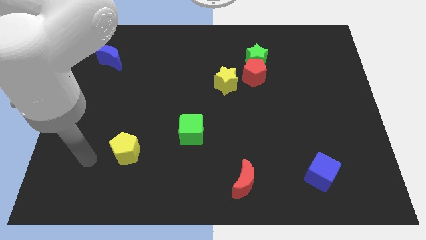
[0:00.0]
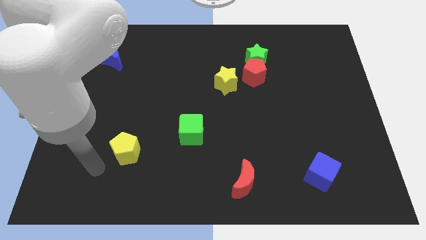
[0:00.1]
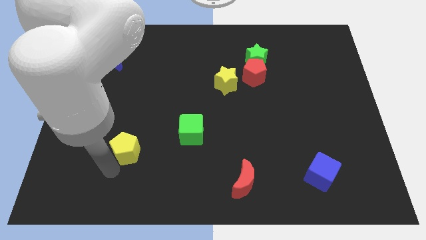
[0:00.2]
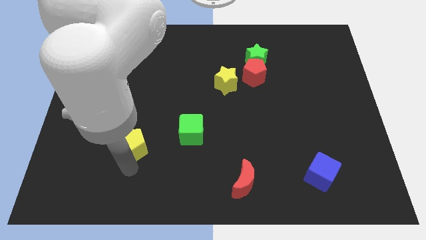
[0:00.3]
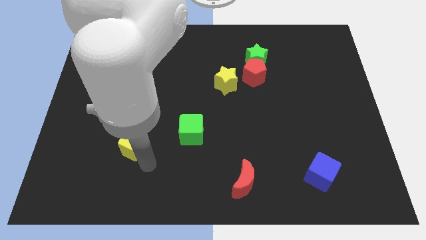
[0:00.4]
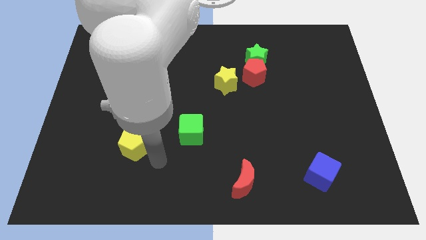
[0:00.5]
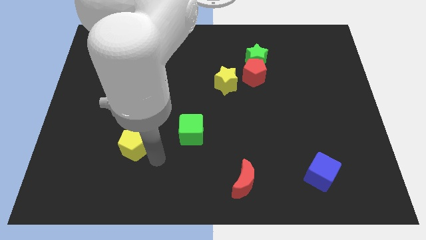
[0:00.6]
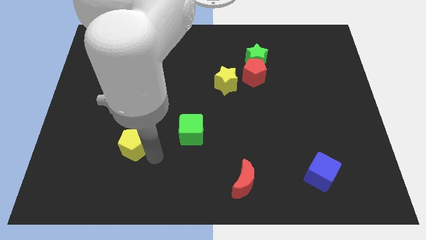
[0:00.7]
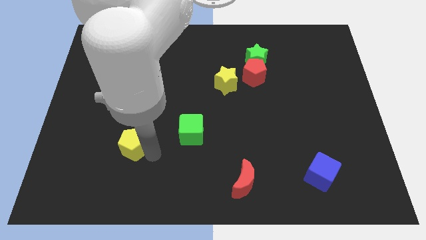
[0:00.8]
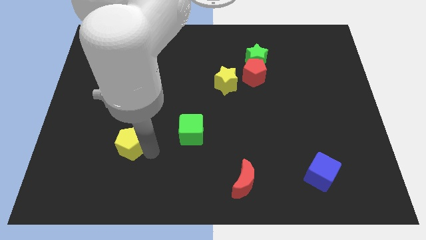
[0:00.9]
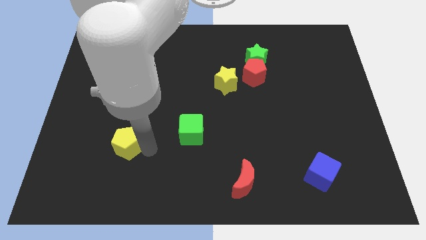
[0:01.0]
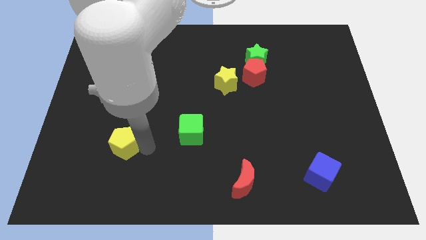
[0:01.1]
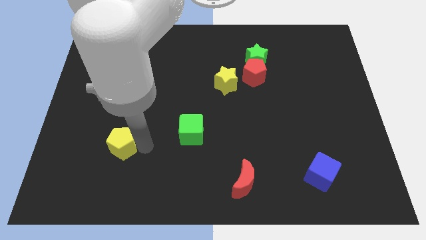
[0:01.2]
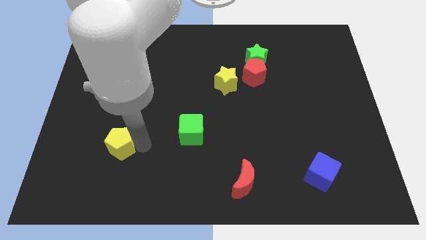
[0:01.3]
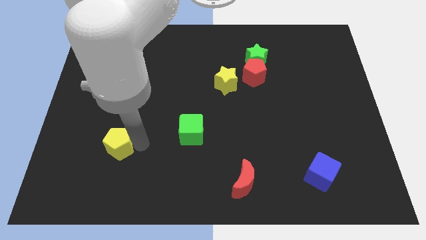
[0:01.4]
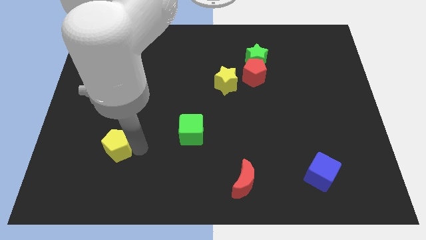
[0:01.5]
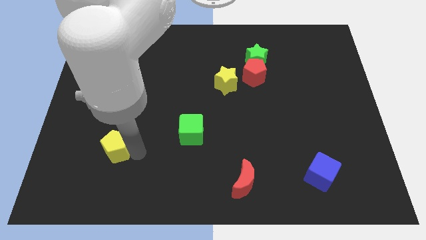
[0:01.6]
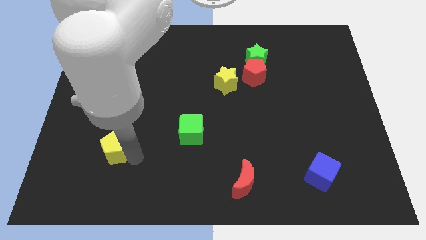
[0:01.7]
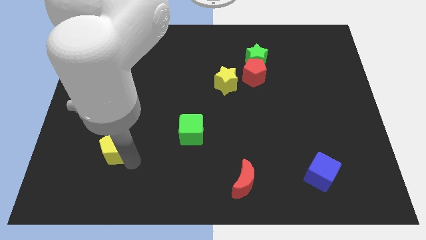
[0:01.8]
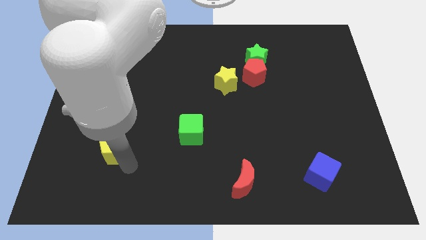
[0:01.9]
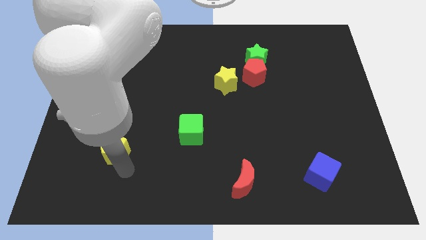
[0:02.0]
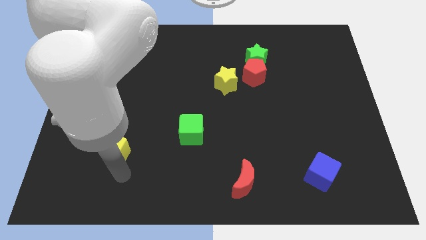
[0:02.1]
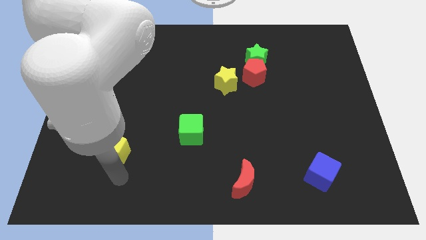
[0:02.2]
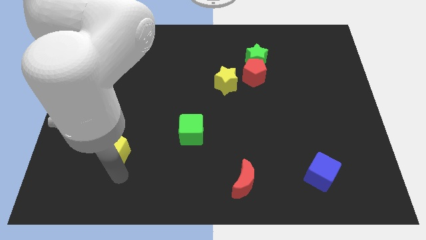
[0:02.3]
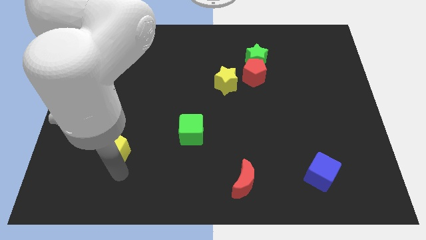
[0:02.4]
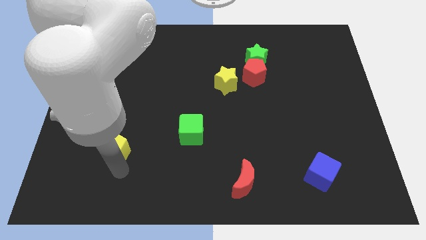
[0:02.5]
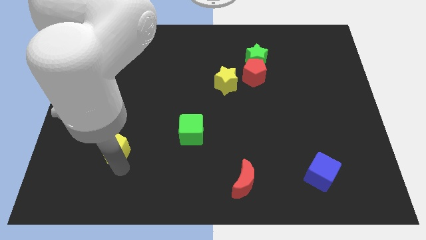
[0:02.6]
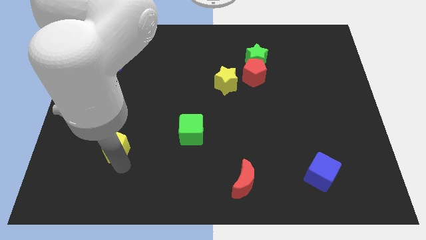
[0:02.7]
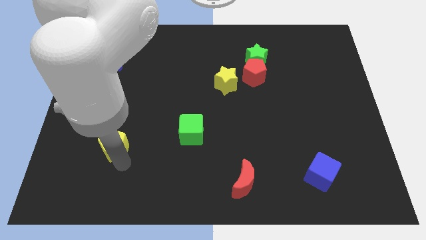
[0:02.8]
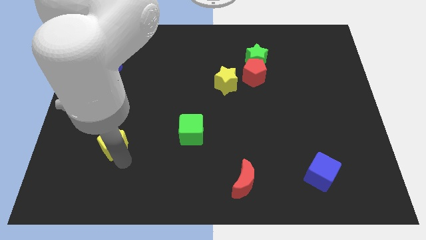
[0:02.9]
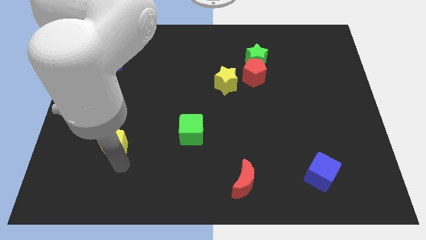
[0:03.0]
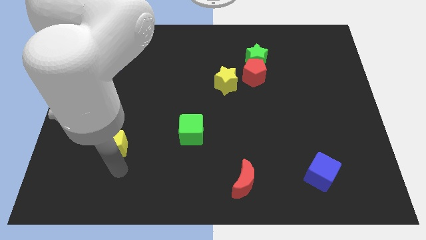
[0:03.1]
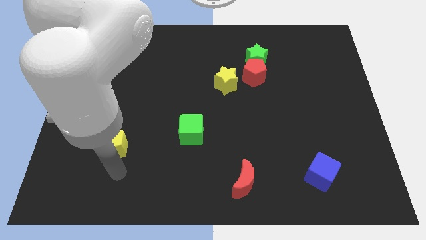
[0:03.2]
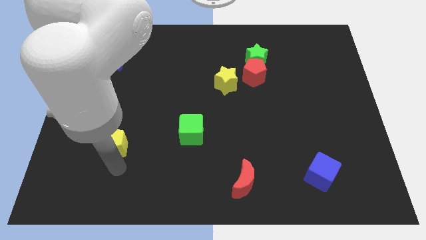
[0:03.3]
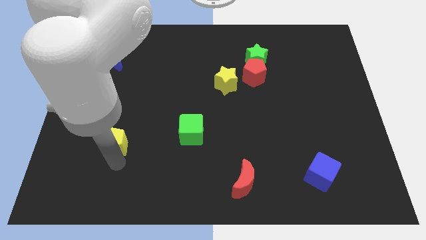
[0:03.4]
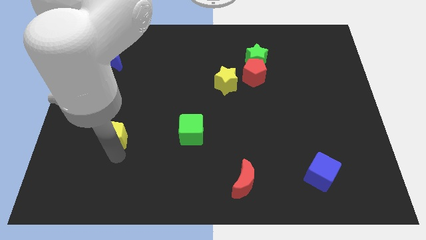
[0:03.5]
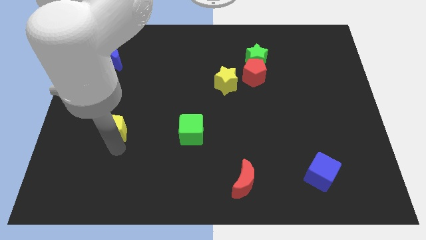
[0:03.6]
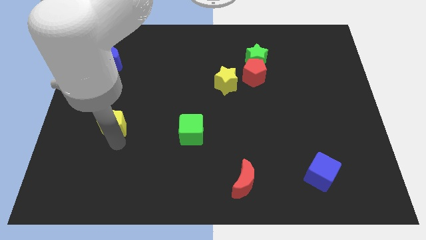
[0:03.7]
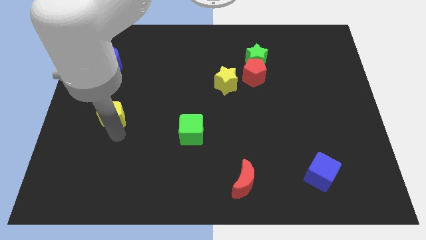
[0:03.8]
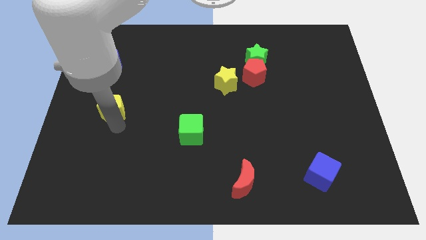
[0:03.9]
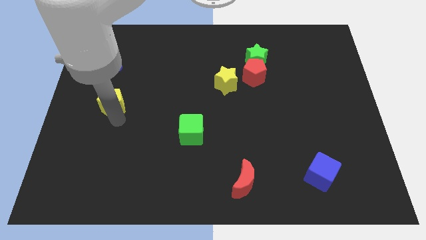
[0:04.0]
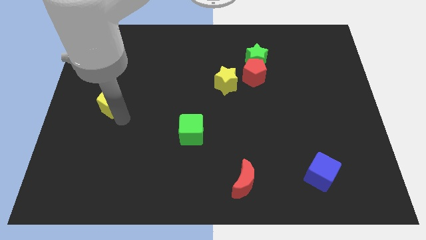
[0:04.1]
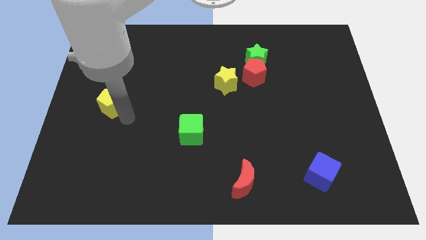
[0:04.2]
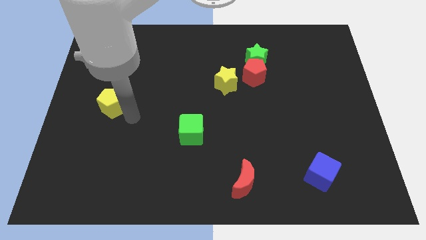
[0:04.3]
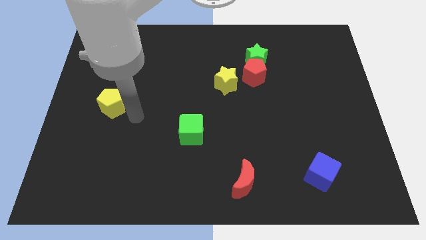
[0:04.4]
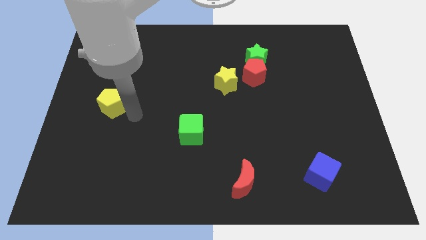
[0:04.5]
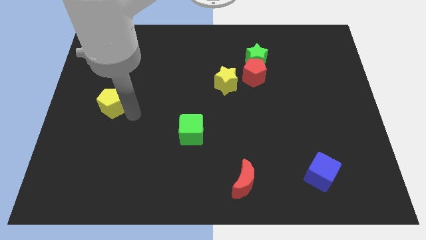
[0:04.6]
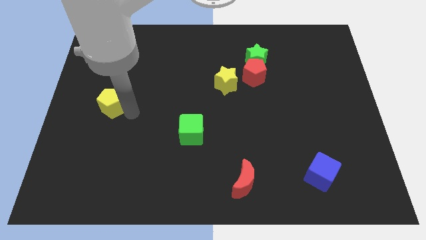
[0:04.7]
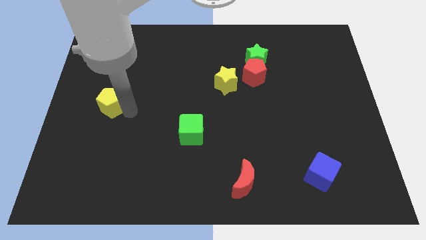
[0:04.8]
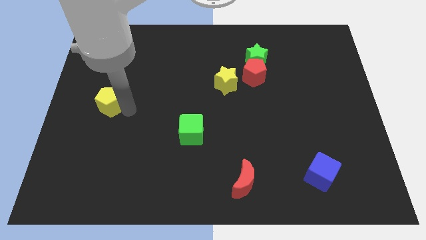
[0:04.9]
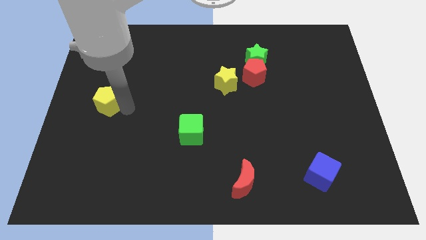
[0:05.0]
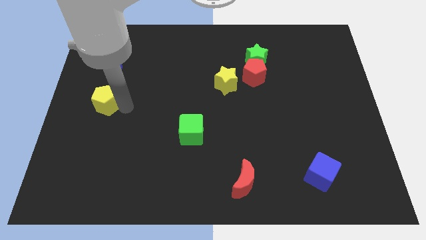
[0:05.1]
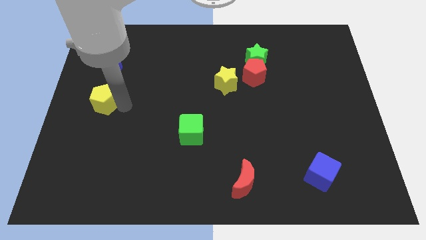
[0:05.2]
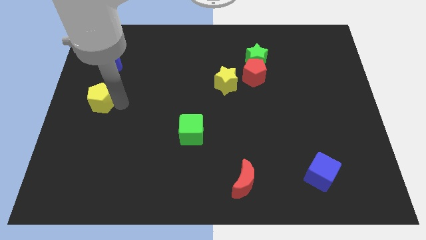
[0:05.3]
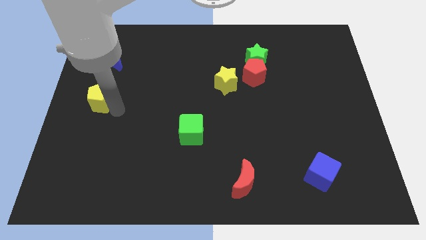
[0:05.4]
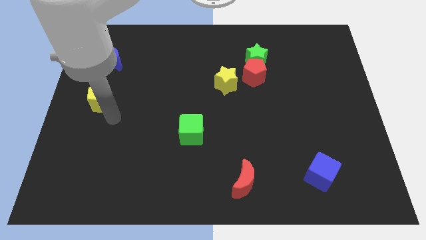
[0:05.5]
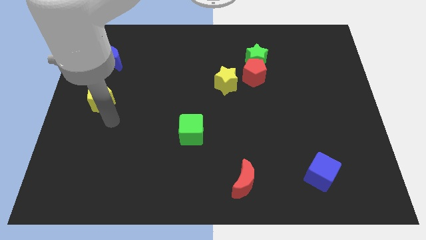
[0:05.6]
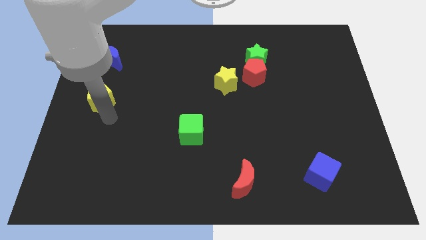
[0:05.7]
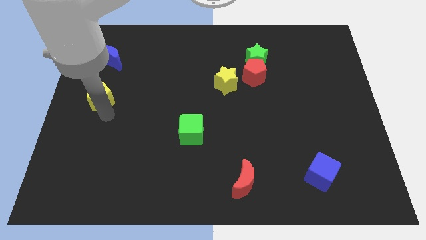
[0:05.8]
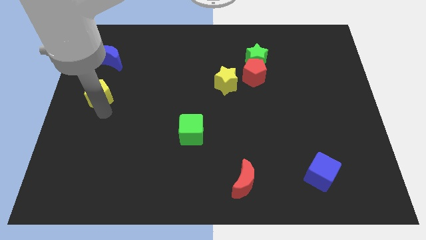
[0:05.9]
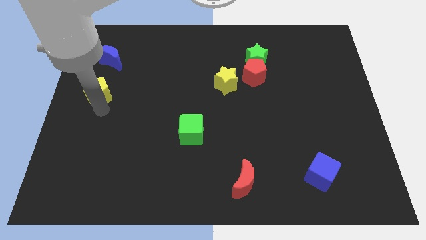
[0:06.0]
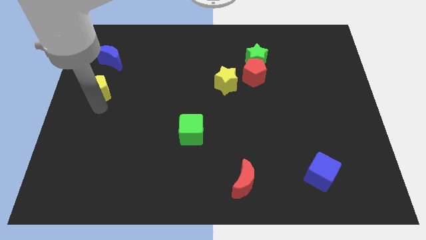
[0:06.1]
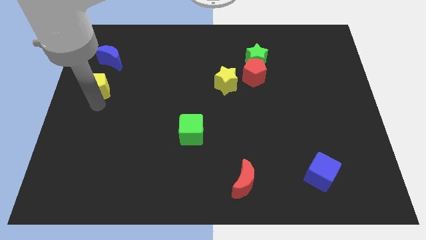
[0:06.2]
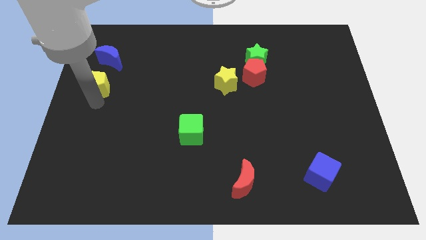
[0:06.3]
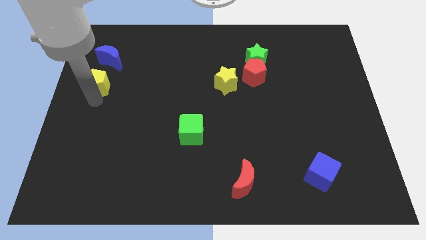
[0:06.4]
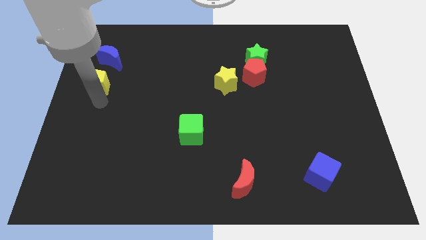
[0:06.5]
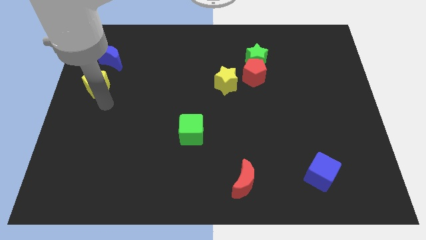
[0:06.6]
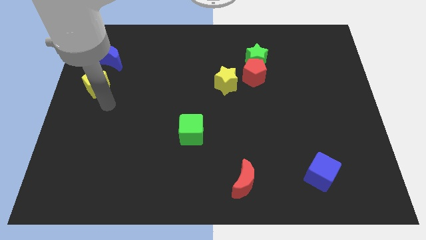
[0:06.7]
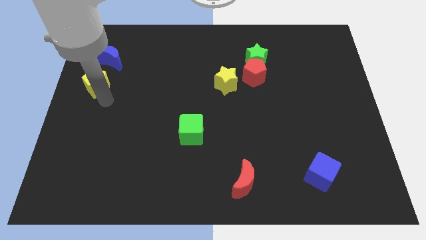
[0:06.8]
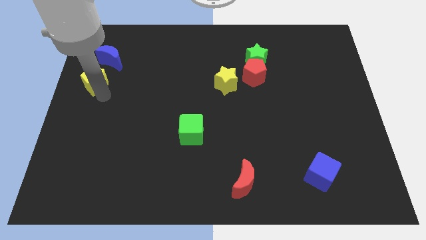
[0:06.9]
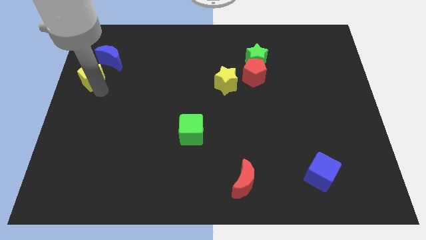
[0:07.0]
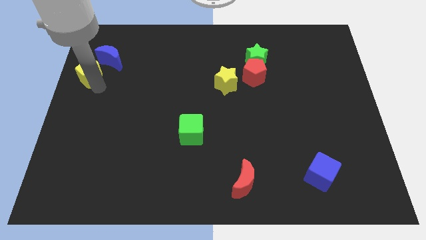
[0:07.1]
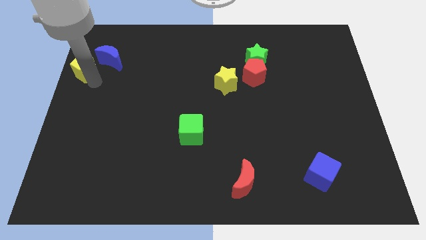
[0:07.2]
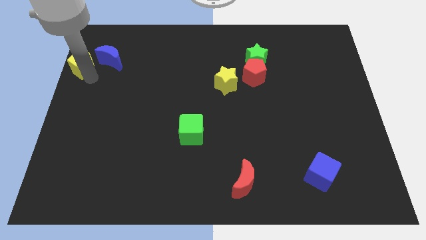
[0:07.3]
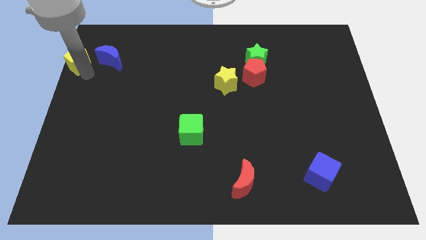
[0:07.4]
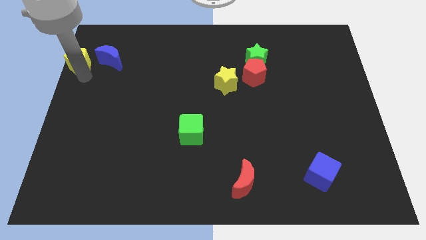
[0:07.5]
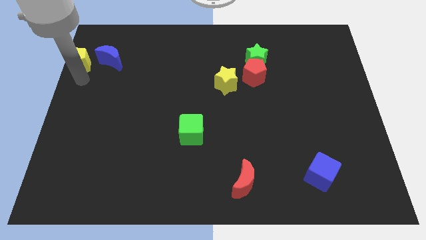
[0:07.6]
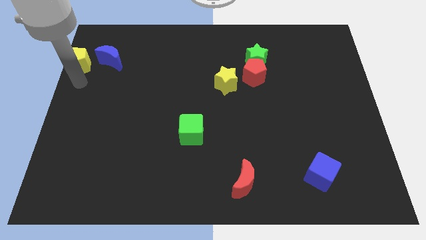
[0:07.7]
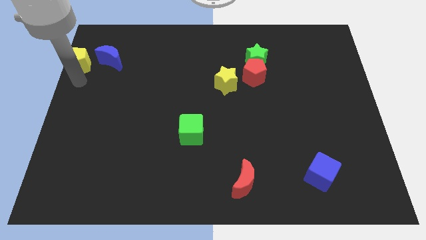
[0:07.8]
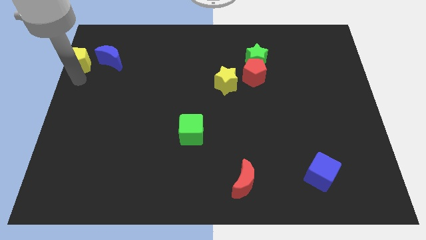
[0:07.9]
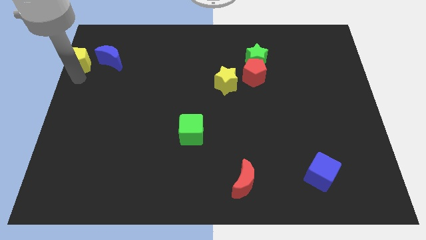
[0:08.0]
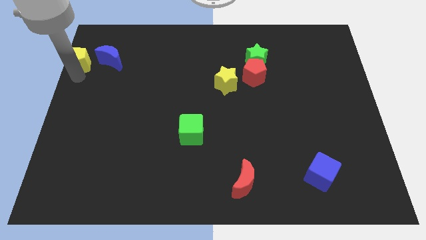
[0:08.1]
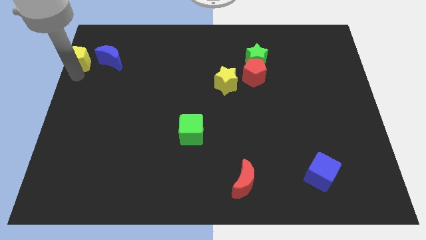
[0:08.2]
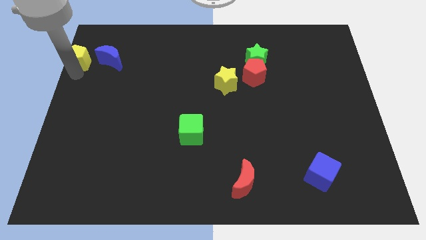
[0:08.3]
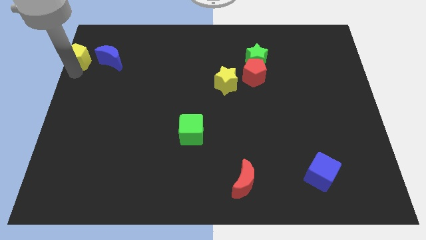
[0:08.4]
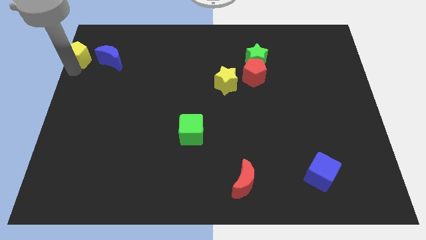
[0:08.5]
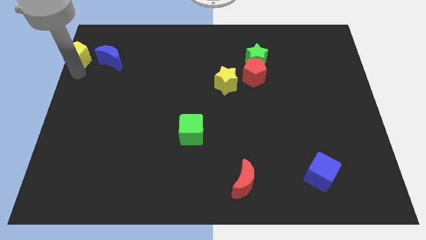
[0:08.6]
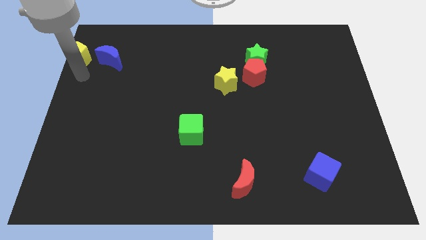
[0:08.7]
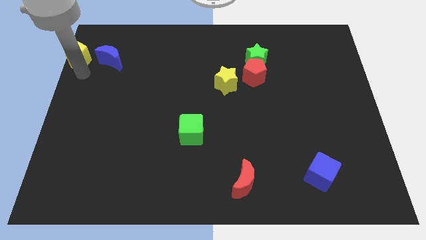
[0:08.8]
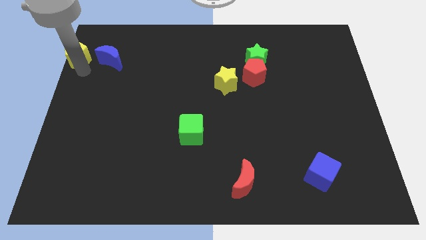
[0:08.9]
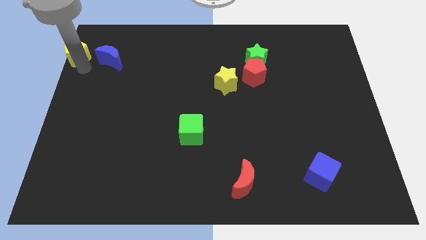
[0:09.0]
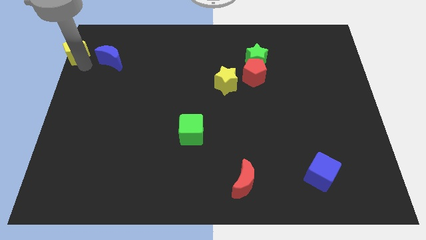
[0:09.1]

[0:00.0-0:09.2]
slide the yellow pentagon to the upper left corner
